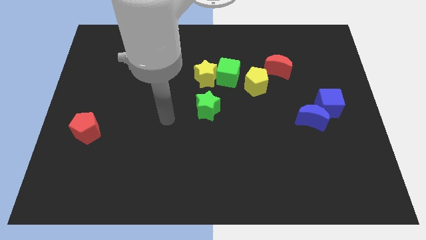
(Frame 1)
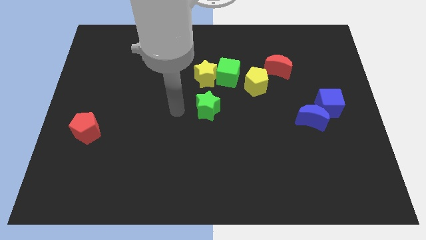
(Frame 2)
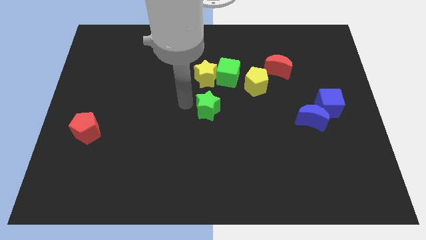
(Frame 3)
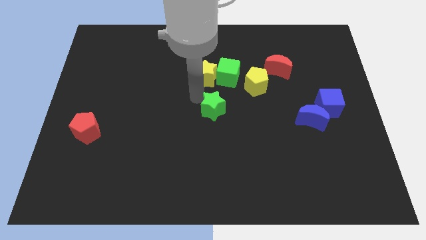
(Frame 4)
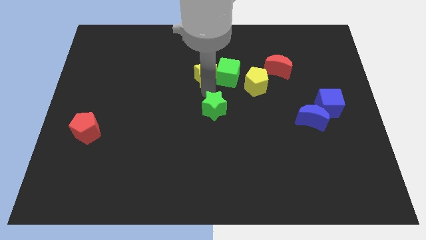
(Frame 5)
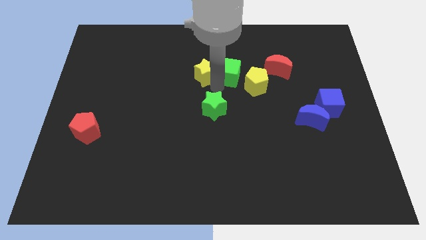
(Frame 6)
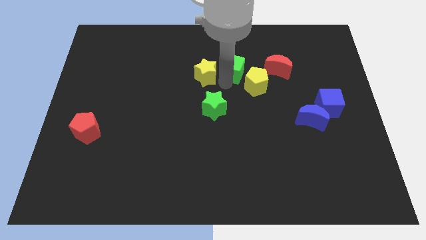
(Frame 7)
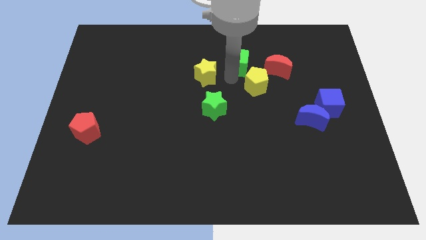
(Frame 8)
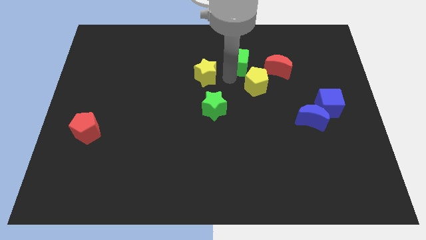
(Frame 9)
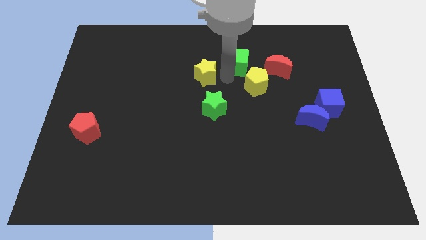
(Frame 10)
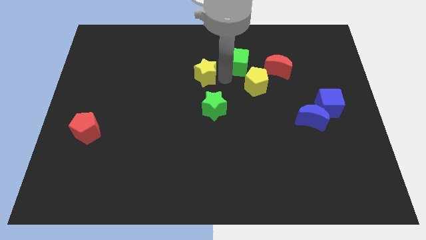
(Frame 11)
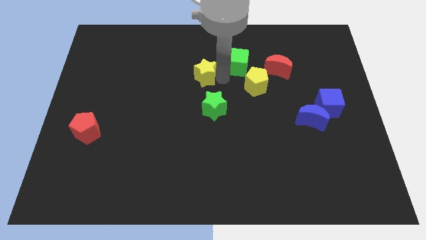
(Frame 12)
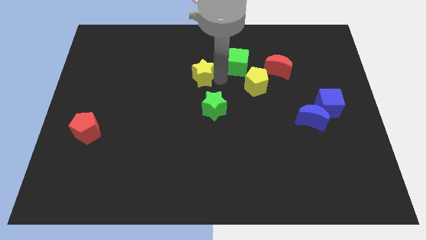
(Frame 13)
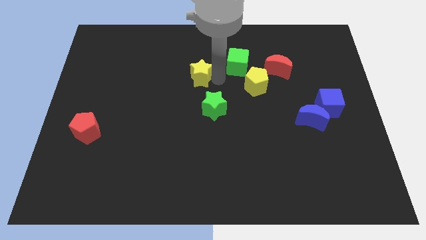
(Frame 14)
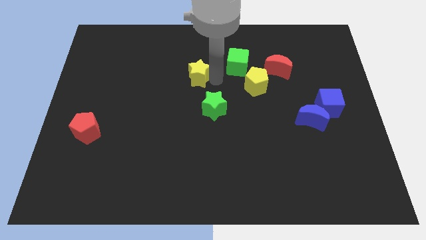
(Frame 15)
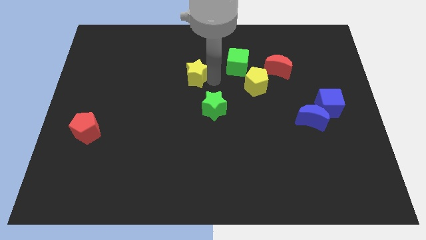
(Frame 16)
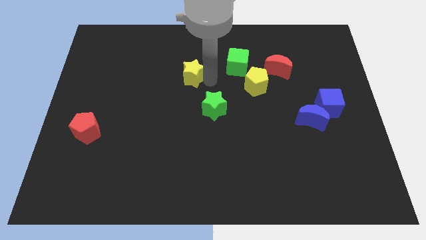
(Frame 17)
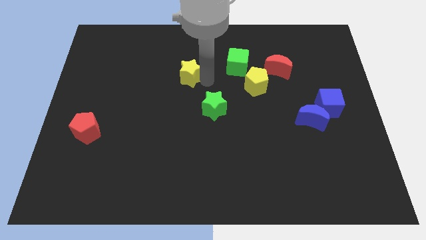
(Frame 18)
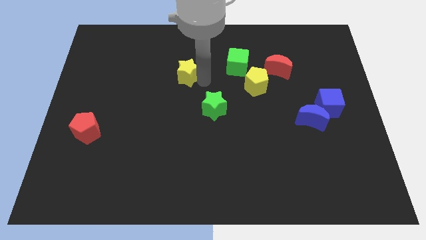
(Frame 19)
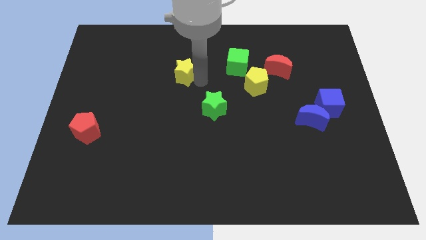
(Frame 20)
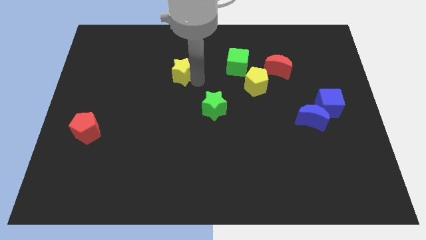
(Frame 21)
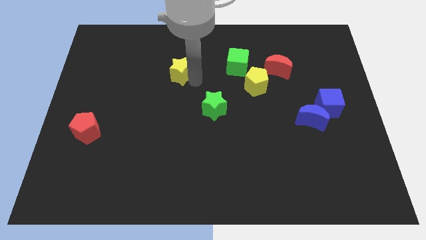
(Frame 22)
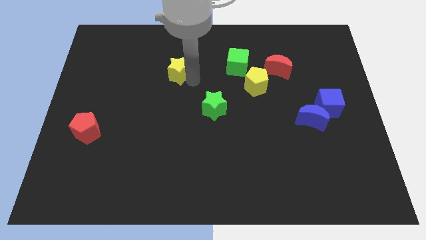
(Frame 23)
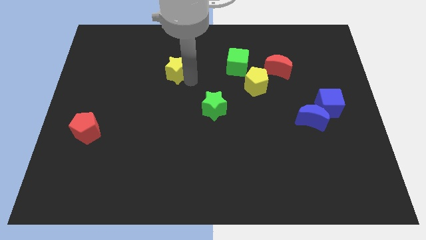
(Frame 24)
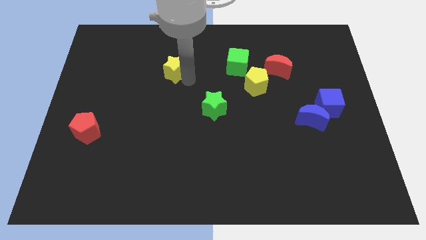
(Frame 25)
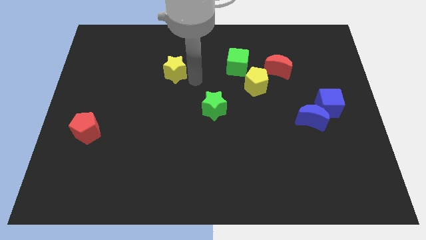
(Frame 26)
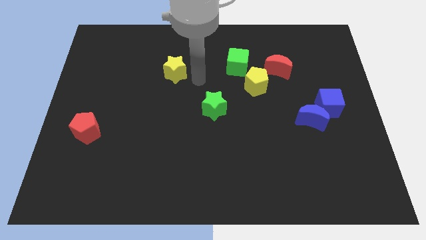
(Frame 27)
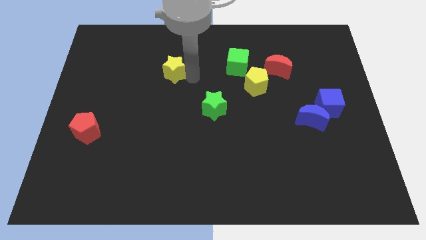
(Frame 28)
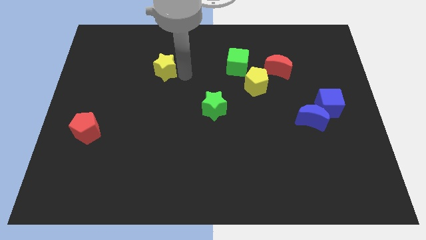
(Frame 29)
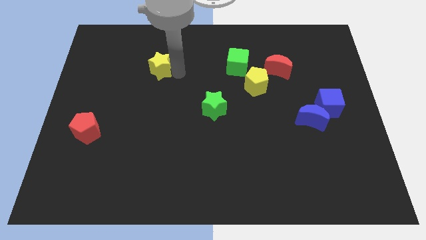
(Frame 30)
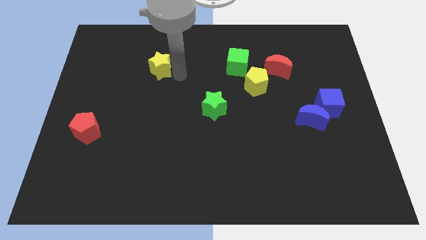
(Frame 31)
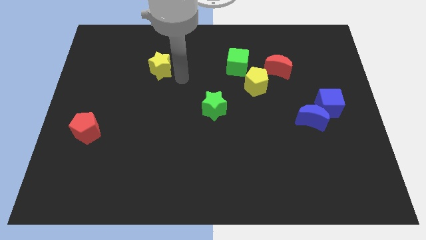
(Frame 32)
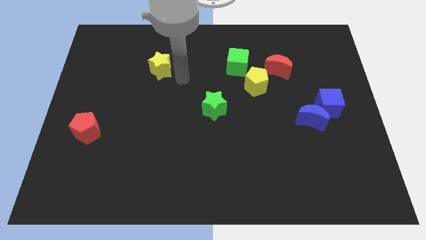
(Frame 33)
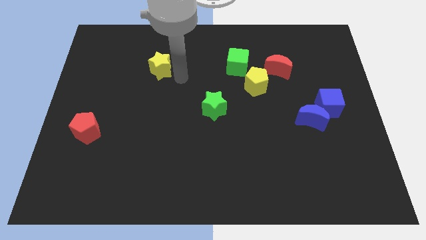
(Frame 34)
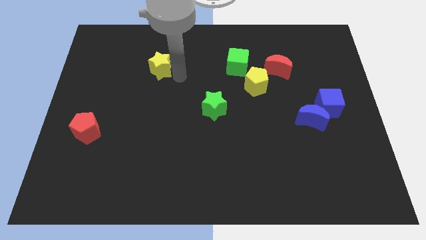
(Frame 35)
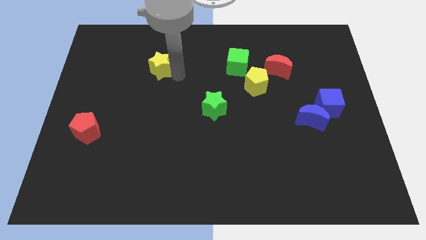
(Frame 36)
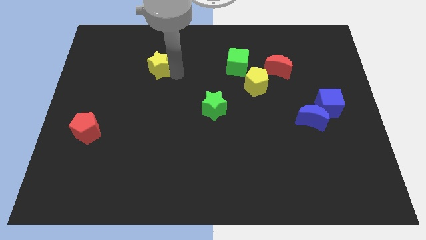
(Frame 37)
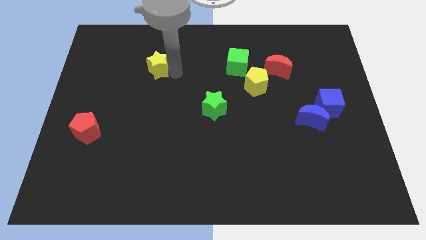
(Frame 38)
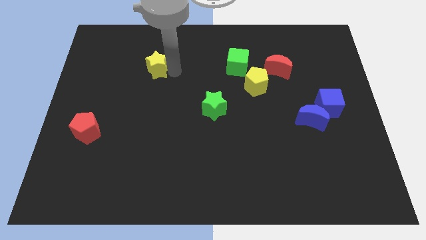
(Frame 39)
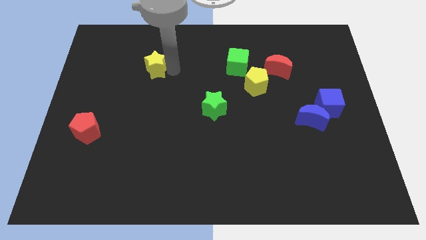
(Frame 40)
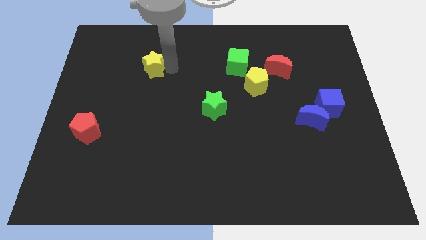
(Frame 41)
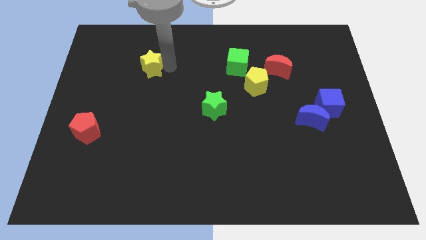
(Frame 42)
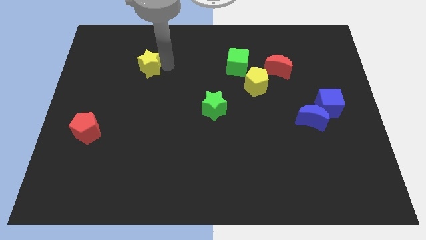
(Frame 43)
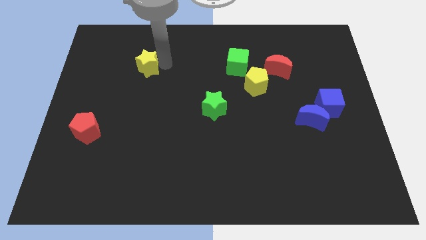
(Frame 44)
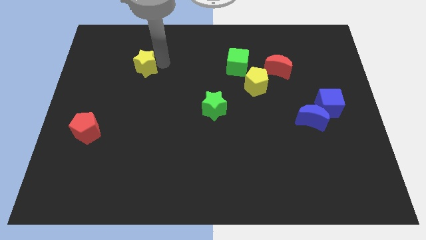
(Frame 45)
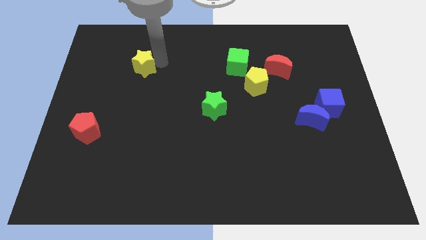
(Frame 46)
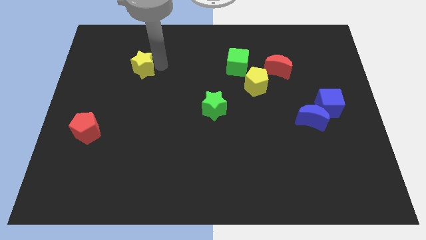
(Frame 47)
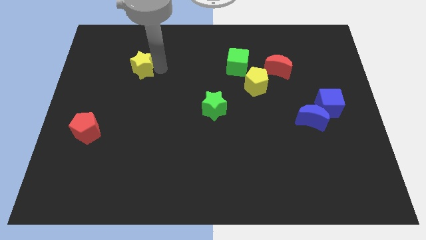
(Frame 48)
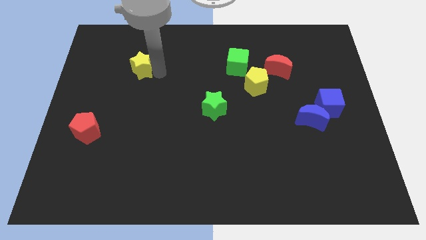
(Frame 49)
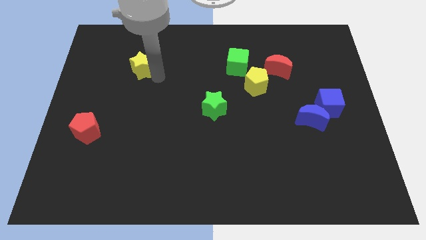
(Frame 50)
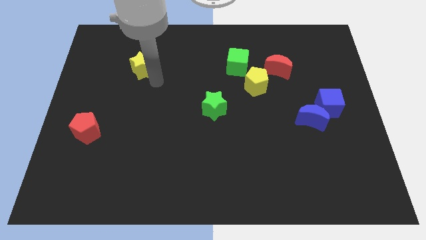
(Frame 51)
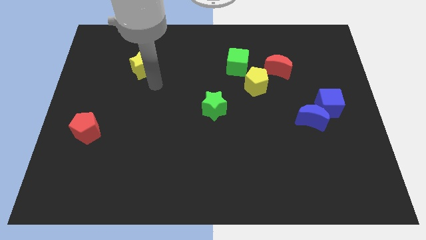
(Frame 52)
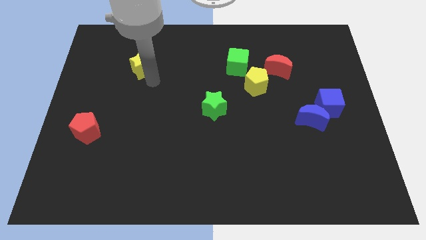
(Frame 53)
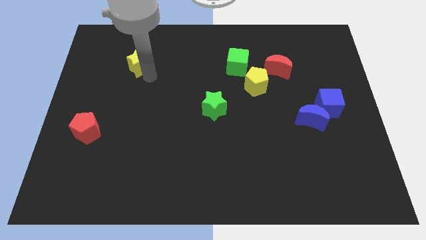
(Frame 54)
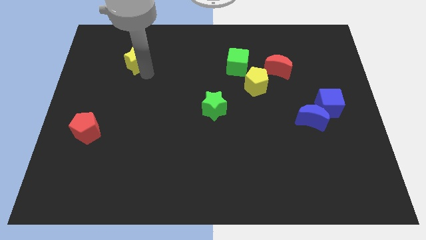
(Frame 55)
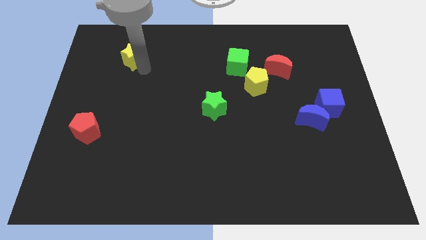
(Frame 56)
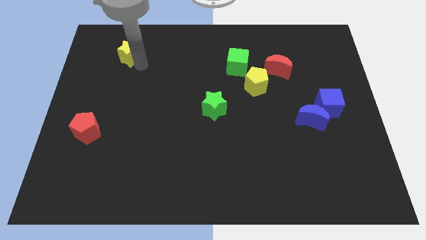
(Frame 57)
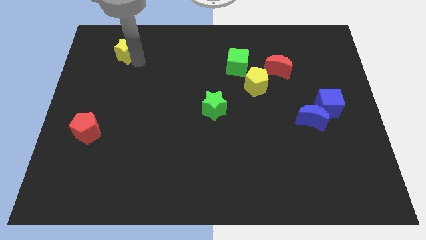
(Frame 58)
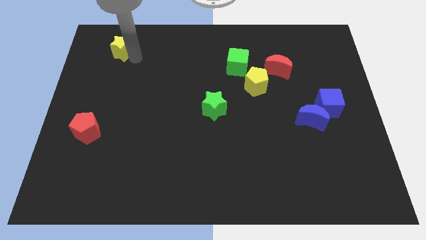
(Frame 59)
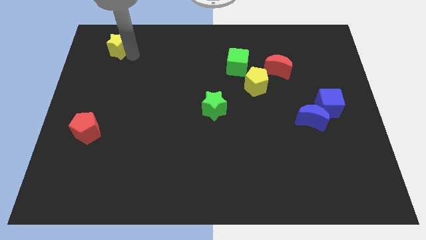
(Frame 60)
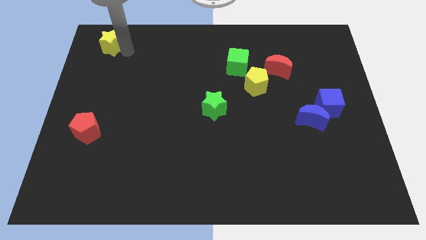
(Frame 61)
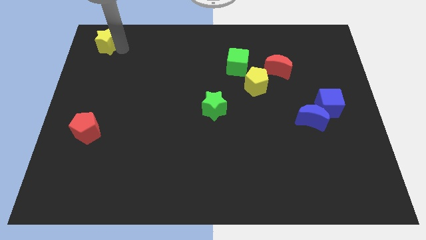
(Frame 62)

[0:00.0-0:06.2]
push the yellow star to the top left corner

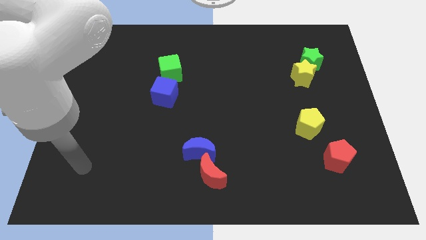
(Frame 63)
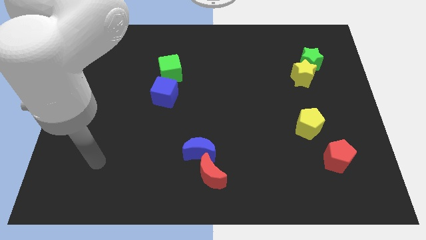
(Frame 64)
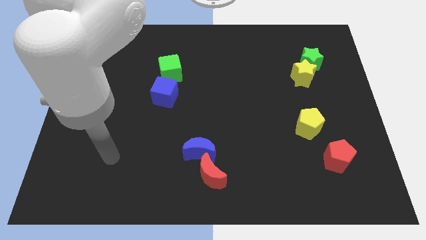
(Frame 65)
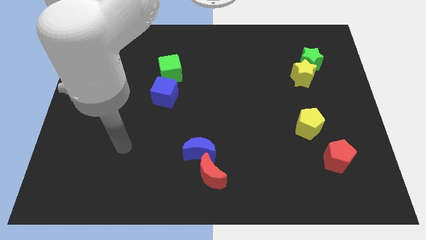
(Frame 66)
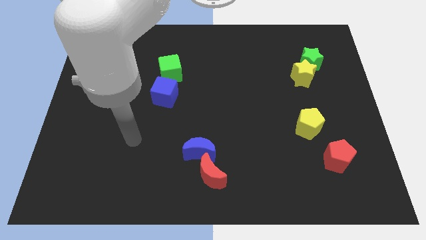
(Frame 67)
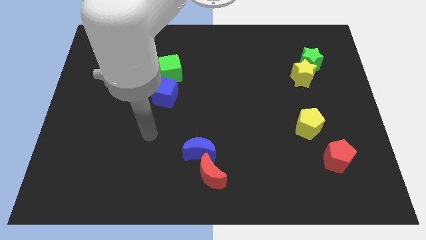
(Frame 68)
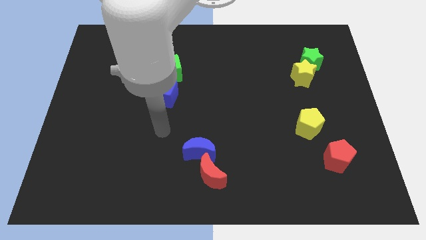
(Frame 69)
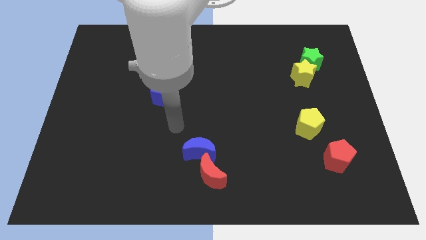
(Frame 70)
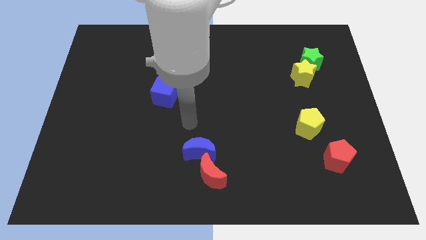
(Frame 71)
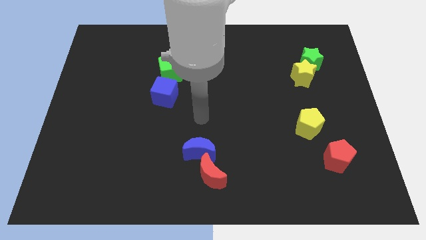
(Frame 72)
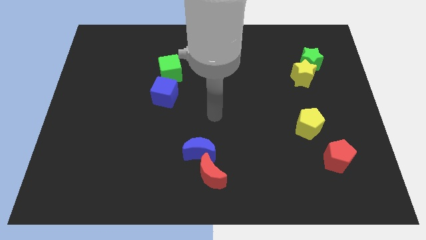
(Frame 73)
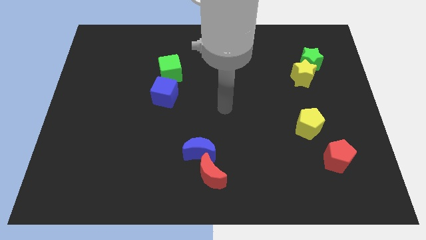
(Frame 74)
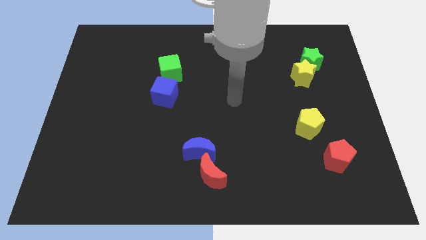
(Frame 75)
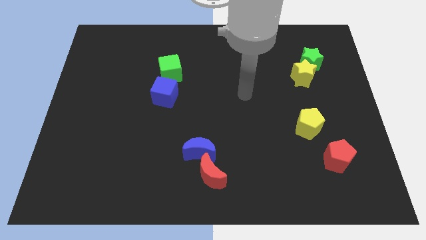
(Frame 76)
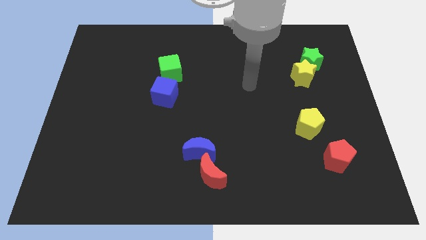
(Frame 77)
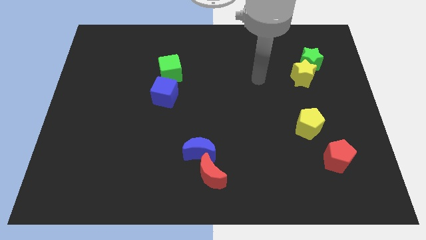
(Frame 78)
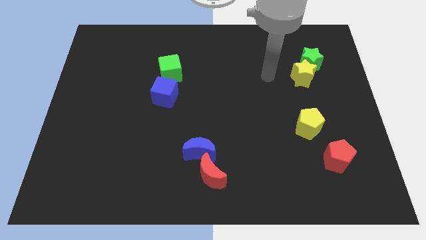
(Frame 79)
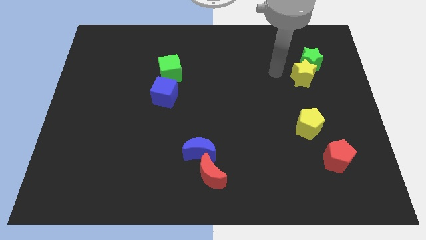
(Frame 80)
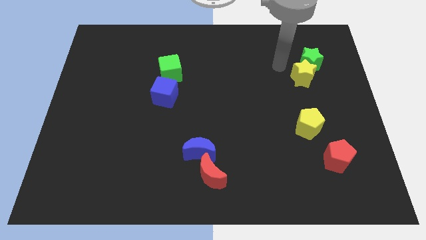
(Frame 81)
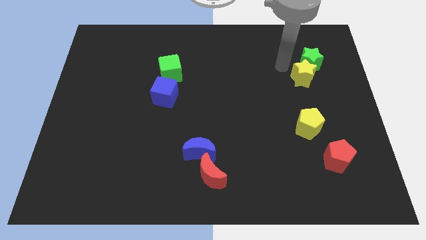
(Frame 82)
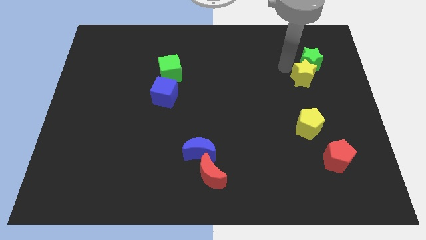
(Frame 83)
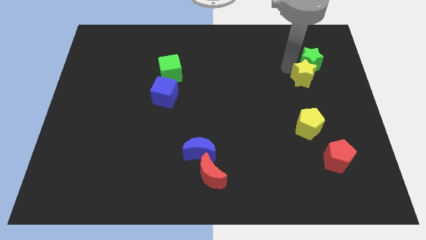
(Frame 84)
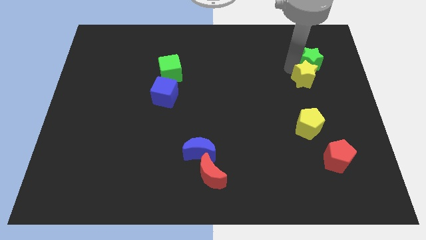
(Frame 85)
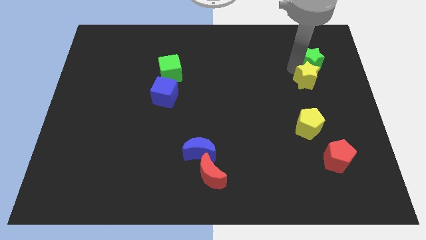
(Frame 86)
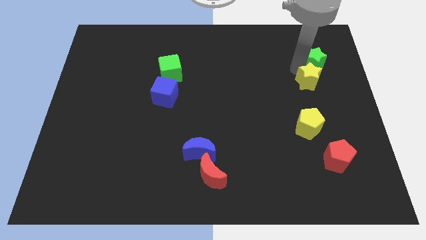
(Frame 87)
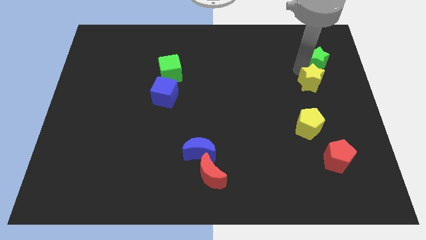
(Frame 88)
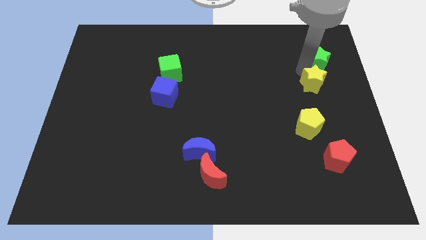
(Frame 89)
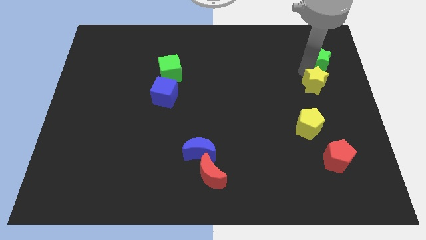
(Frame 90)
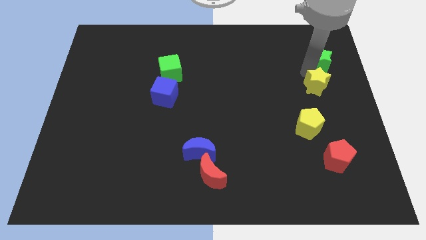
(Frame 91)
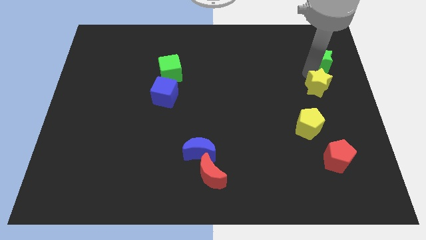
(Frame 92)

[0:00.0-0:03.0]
put the yellow star to the right side of the board
